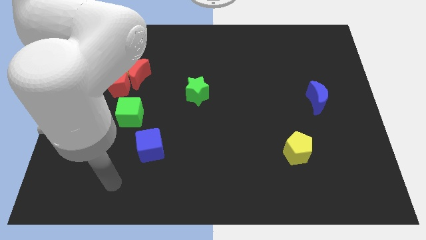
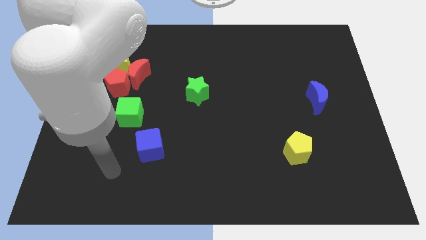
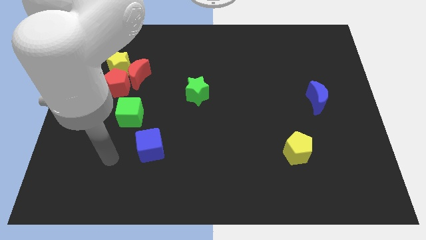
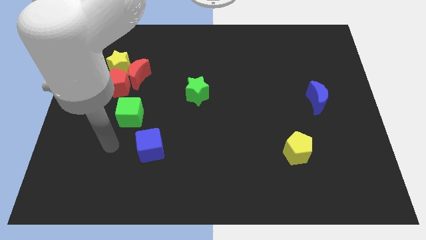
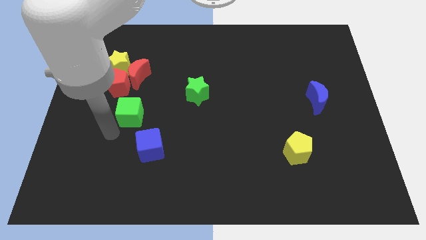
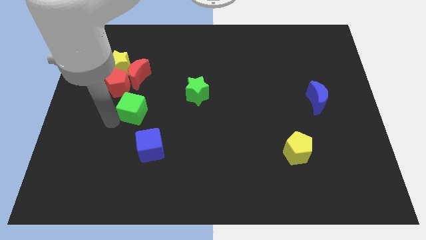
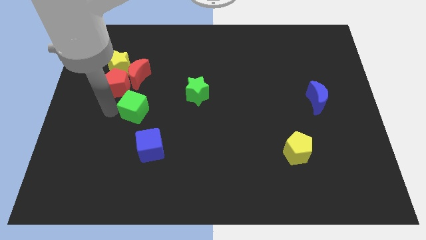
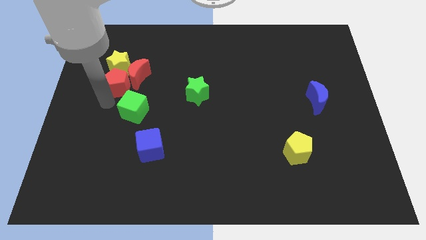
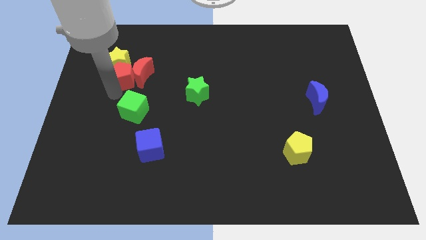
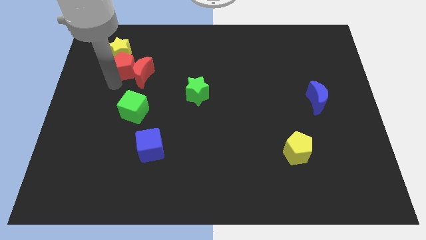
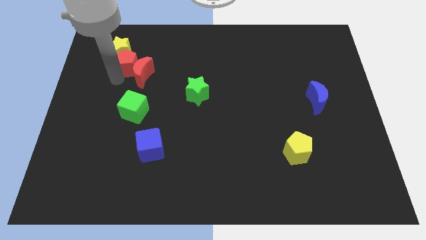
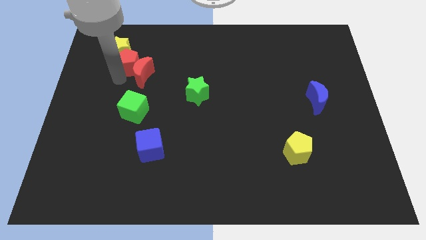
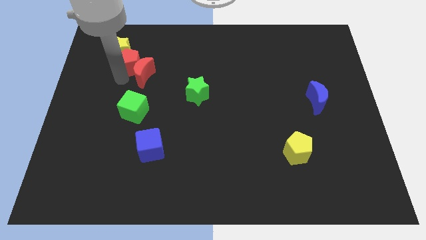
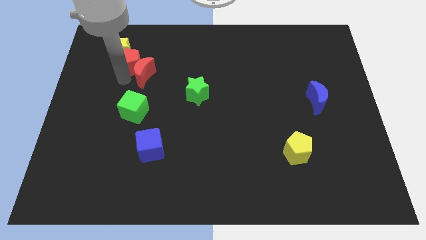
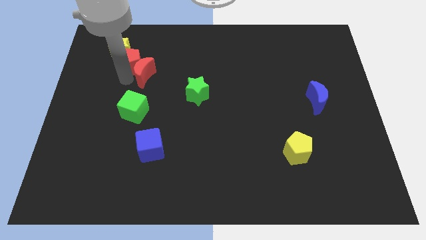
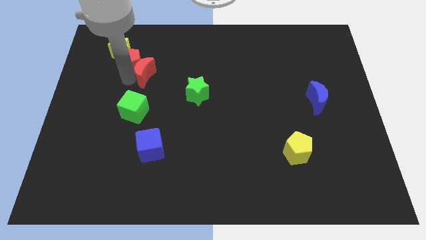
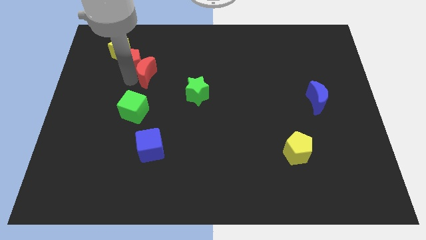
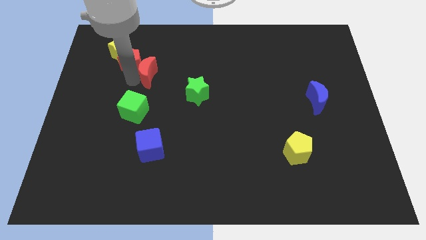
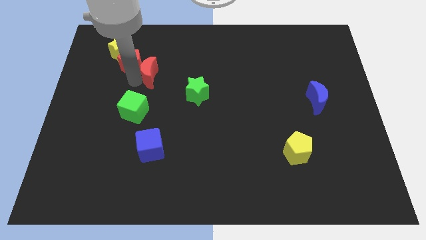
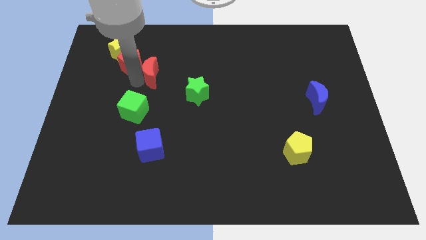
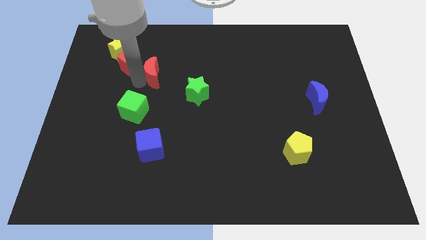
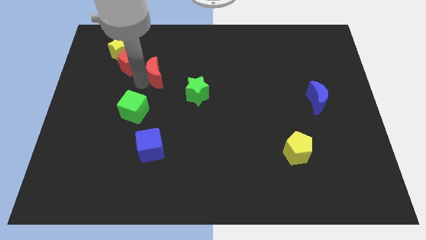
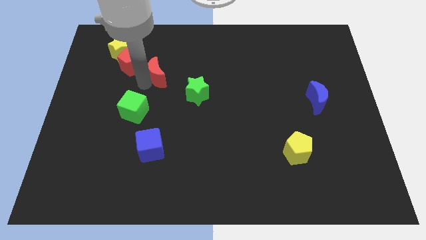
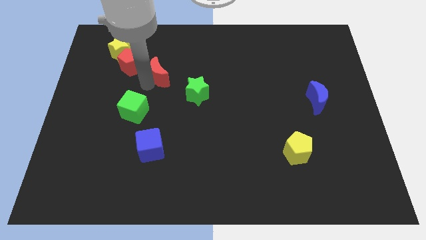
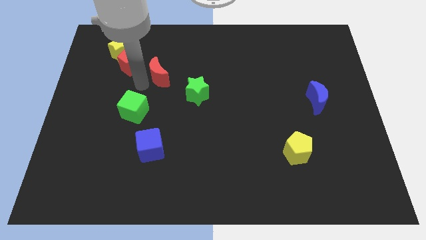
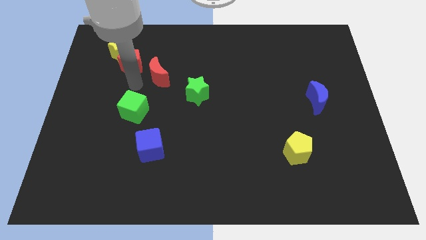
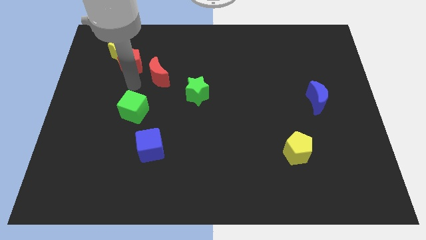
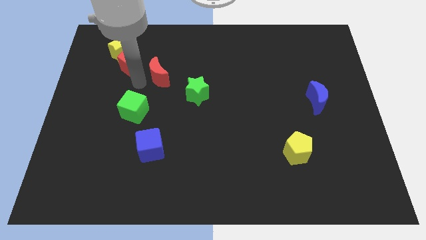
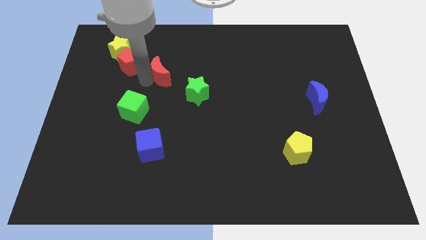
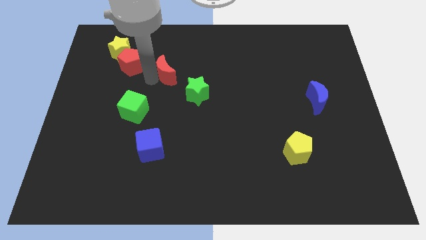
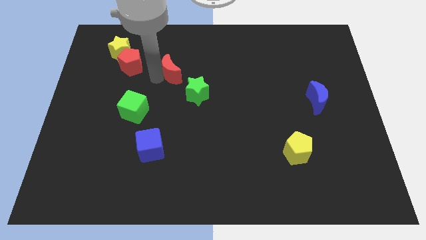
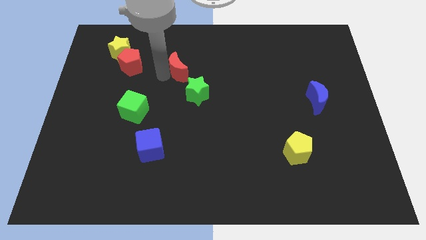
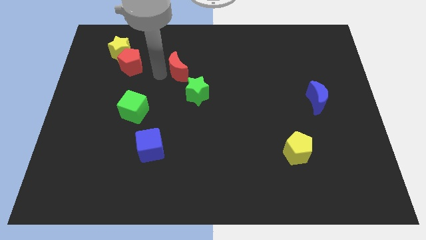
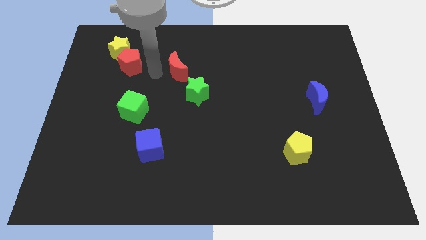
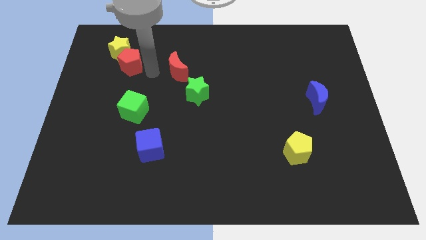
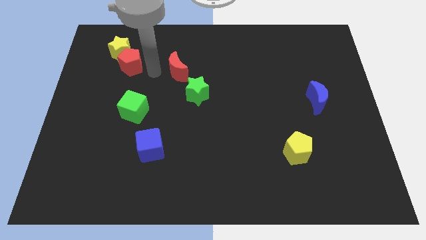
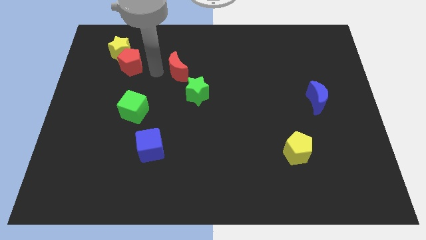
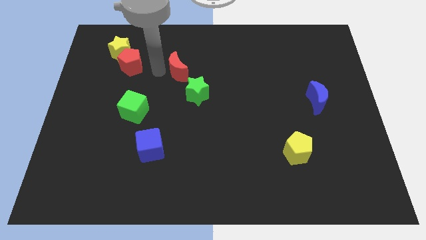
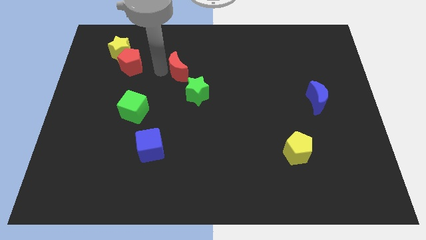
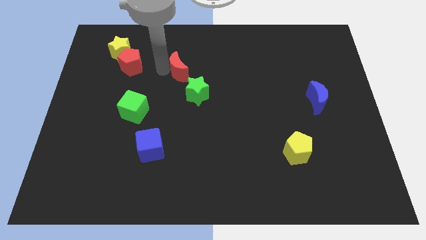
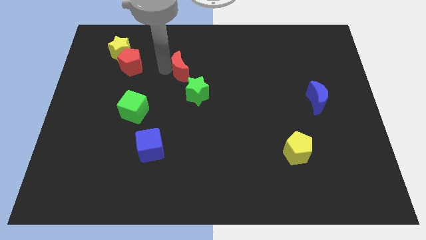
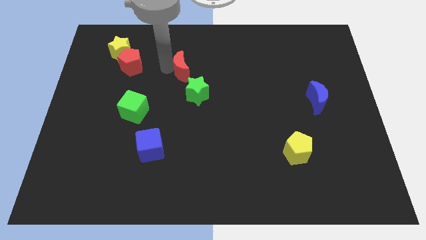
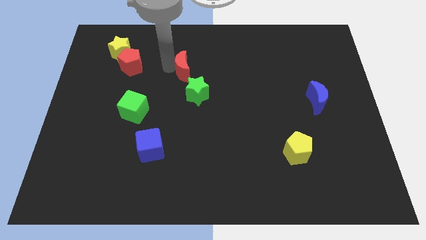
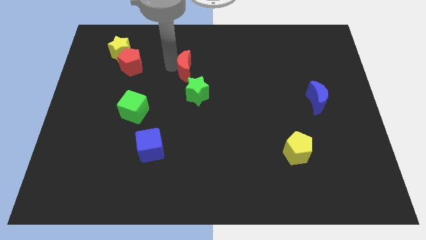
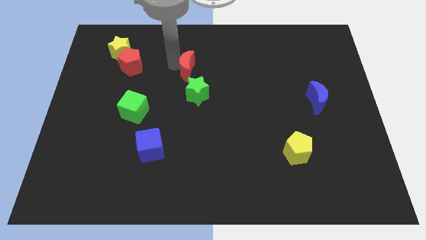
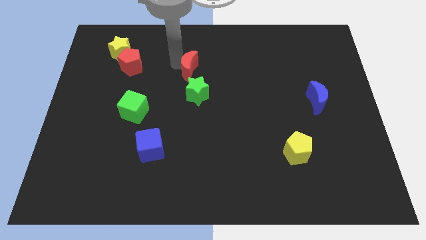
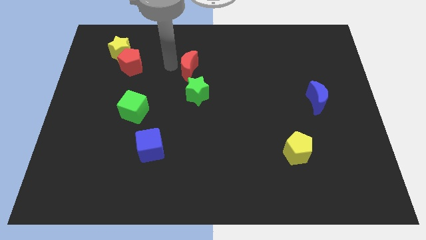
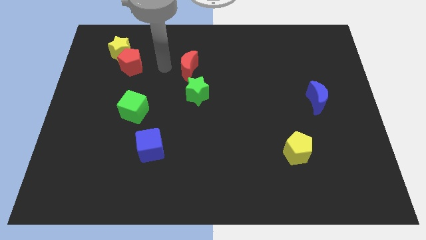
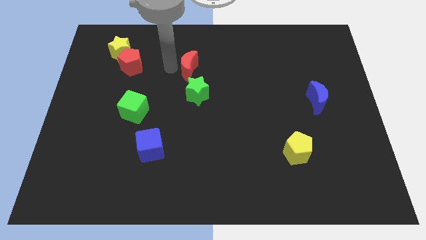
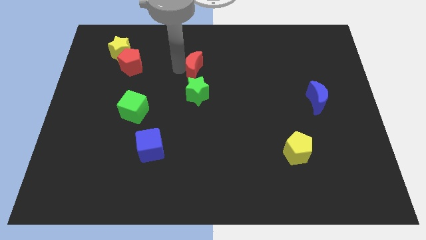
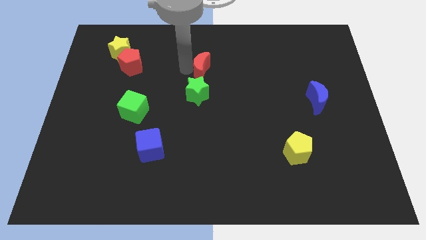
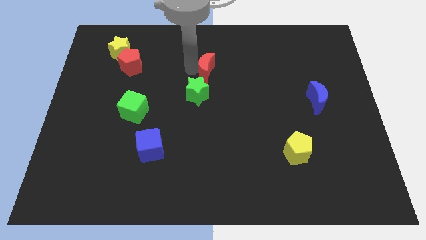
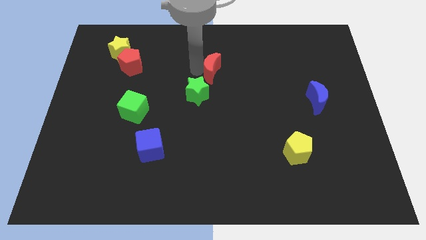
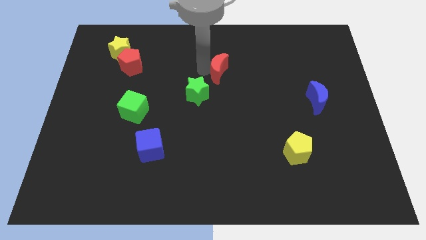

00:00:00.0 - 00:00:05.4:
slide the red moon to the right

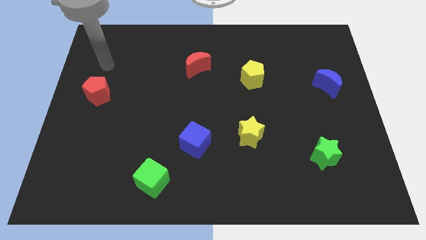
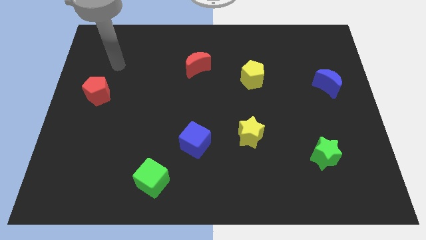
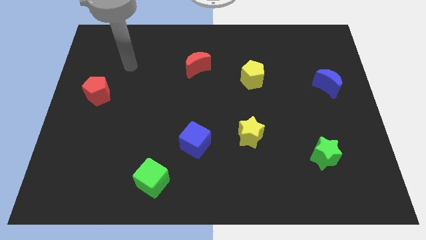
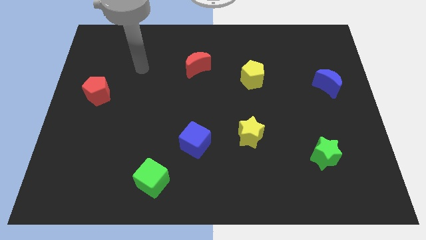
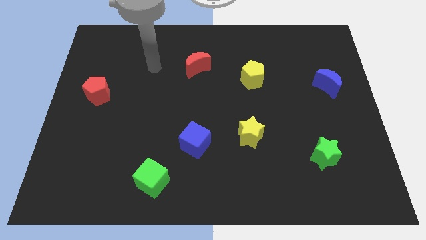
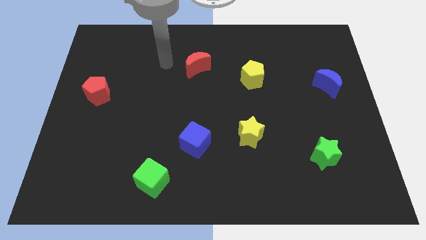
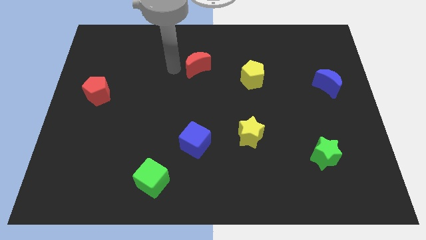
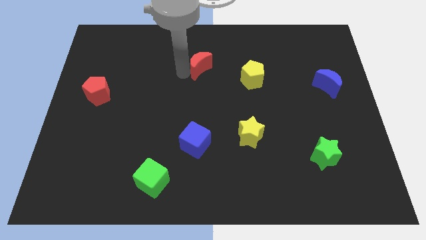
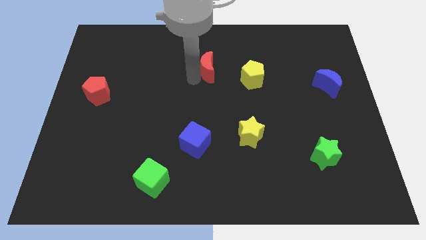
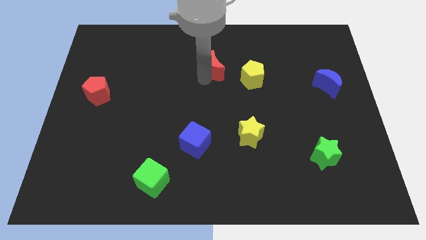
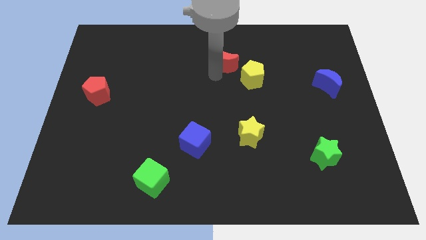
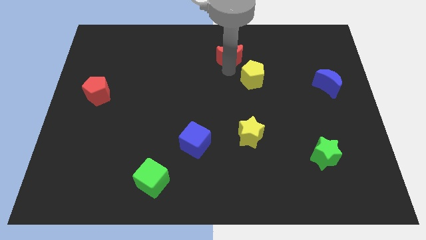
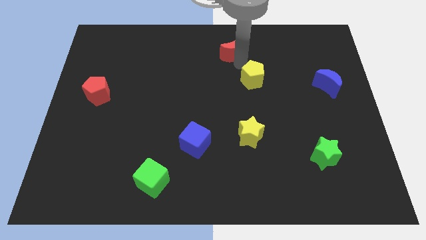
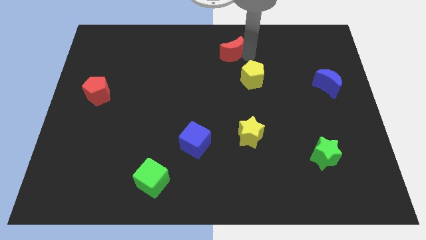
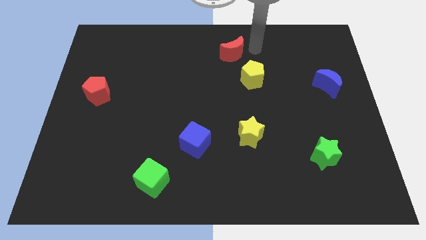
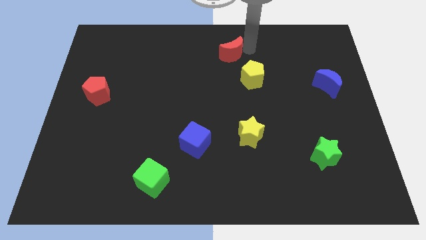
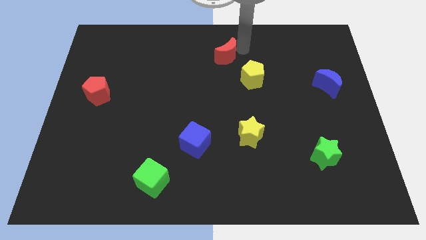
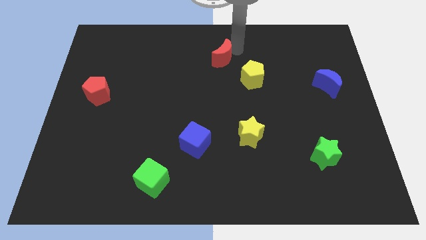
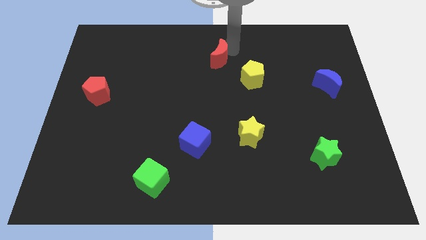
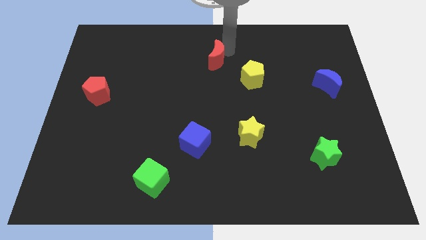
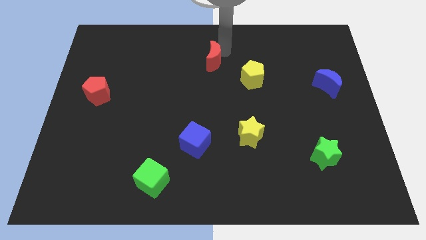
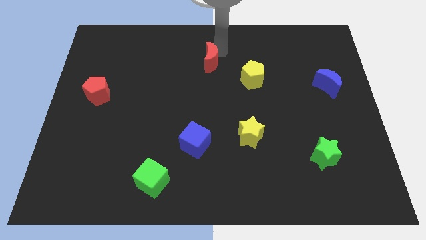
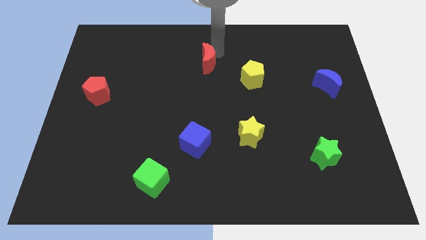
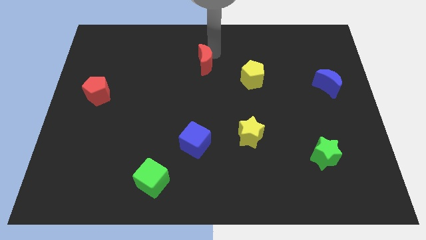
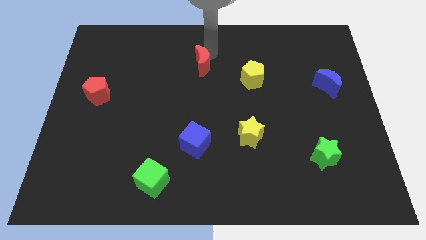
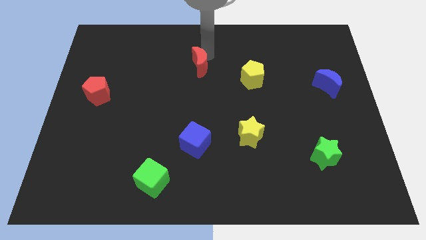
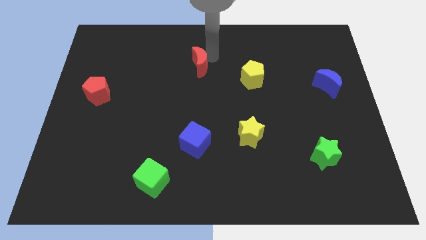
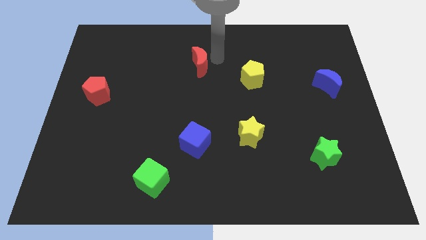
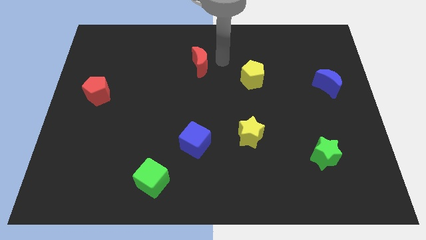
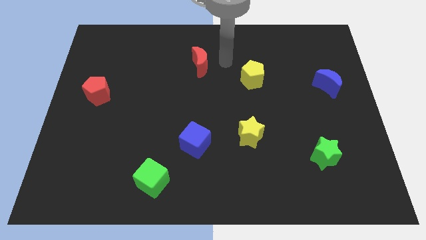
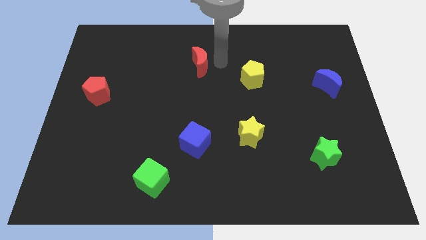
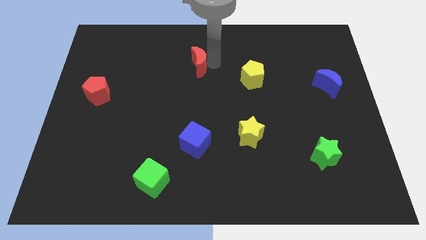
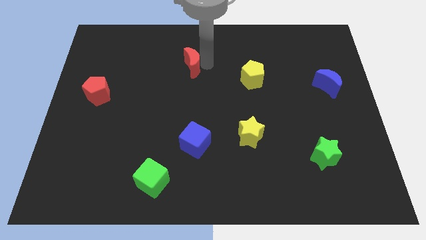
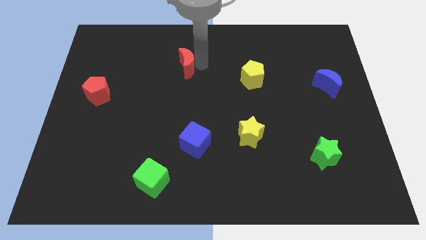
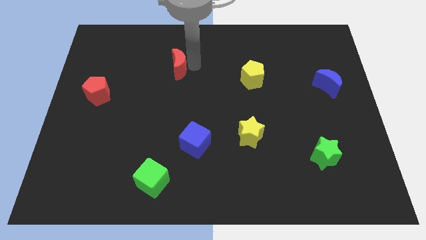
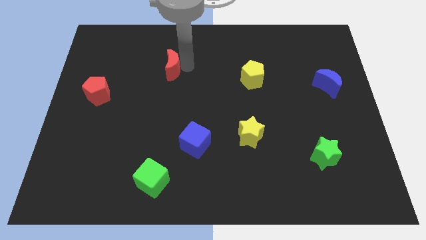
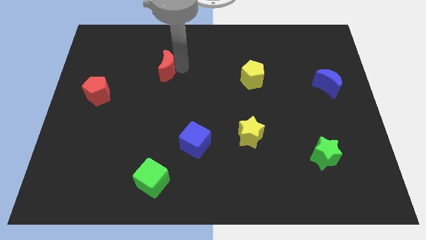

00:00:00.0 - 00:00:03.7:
move the red moon somewhat left
